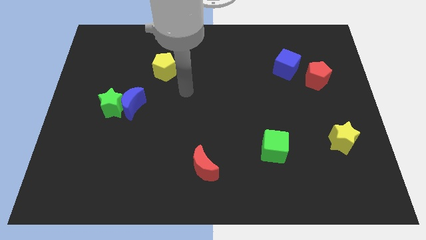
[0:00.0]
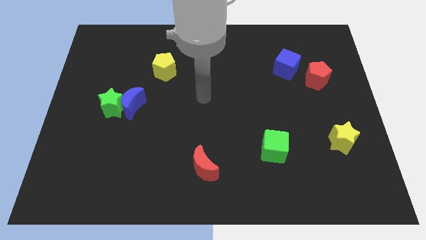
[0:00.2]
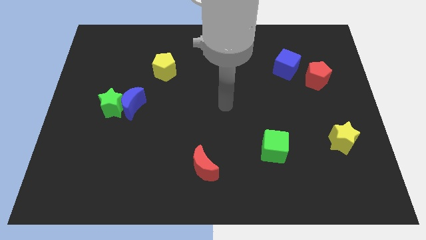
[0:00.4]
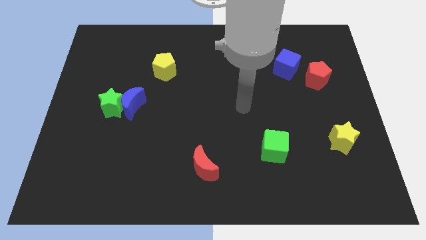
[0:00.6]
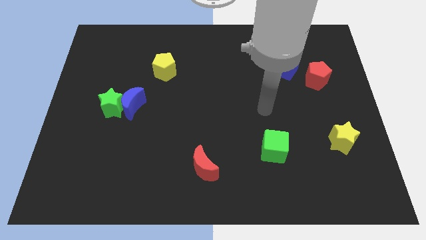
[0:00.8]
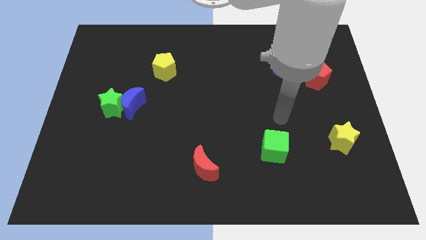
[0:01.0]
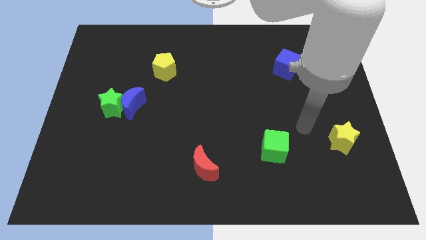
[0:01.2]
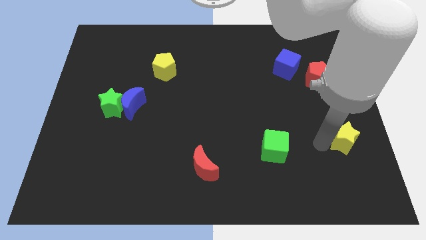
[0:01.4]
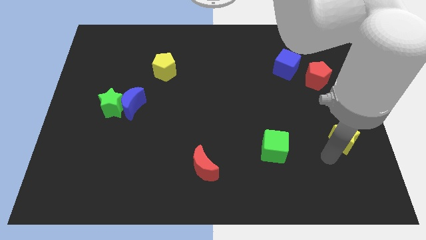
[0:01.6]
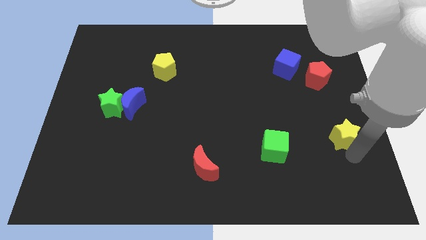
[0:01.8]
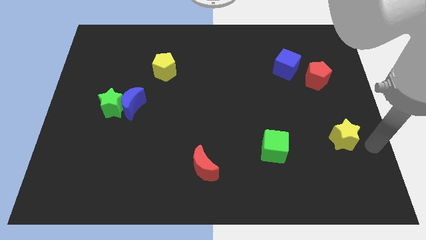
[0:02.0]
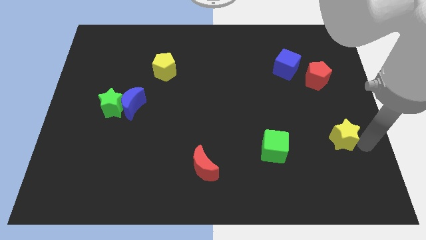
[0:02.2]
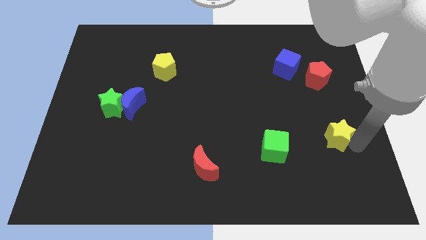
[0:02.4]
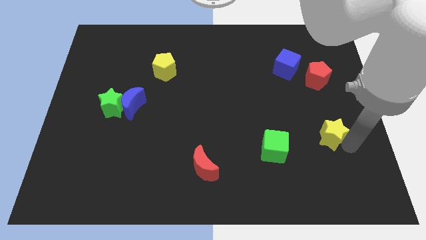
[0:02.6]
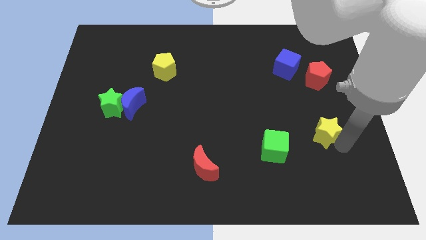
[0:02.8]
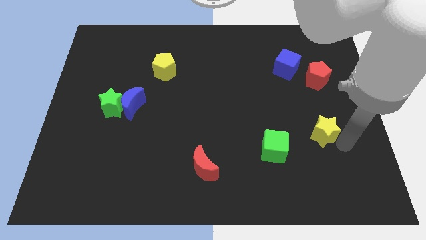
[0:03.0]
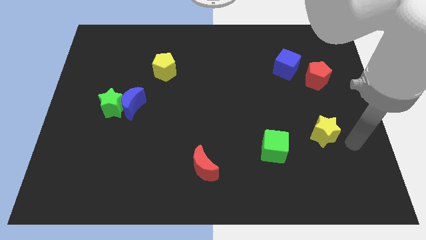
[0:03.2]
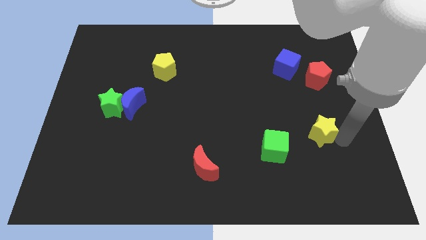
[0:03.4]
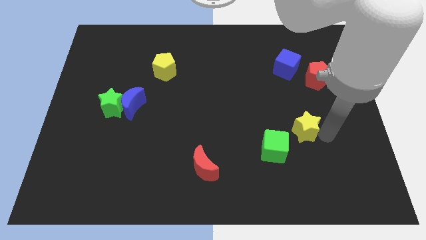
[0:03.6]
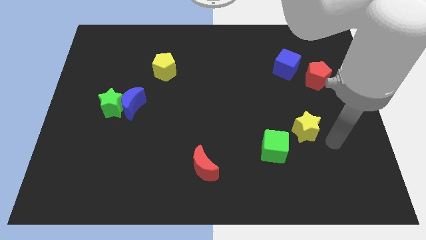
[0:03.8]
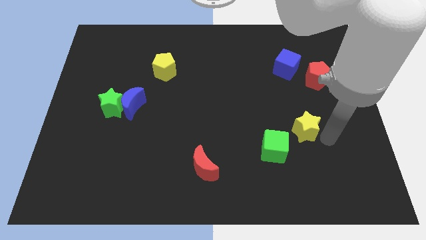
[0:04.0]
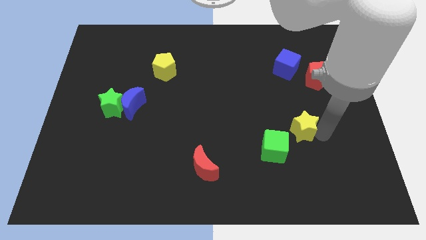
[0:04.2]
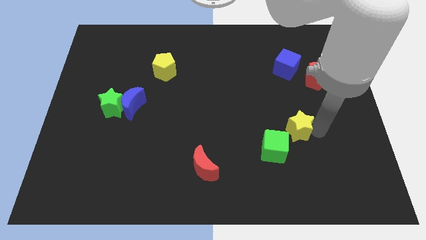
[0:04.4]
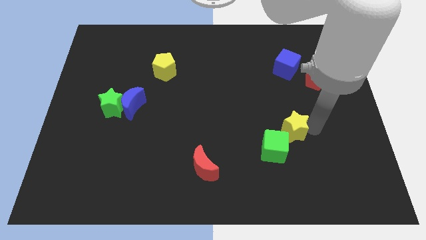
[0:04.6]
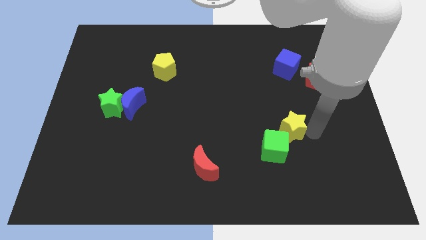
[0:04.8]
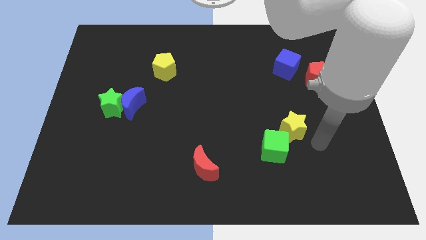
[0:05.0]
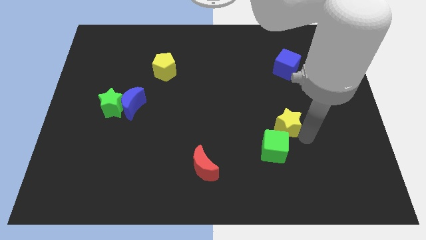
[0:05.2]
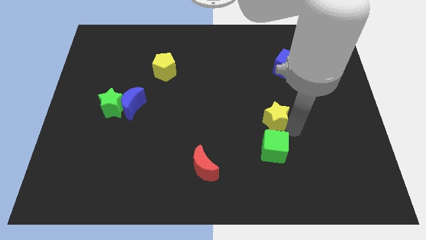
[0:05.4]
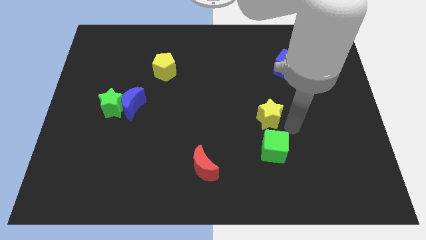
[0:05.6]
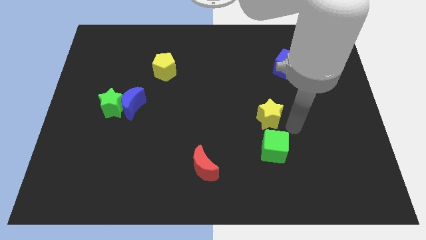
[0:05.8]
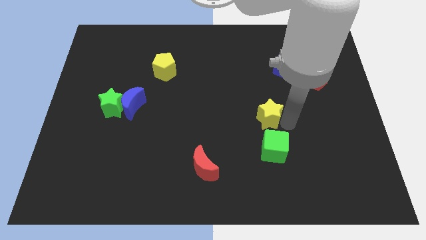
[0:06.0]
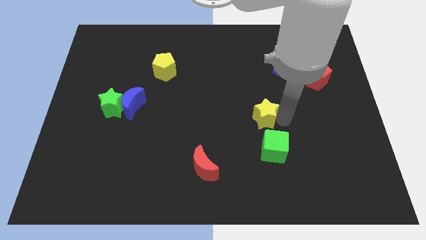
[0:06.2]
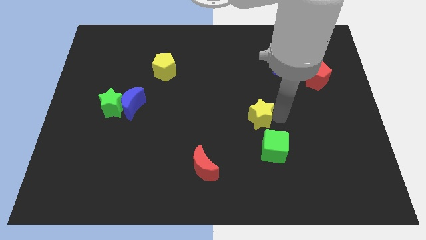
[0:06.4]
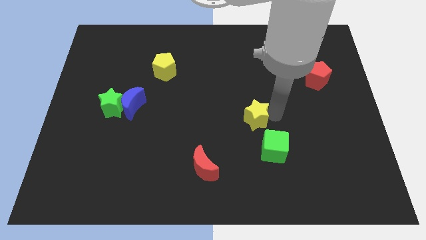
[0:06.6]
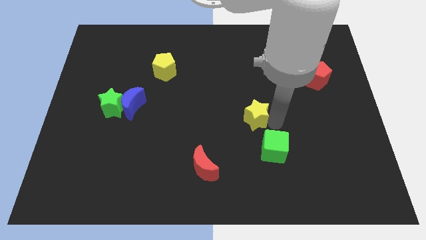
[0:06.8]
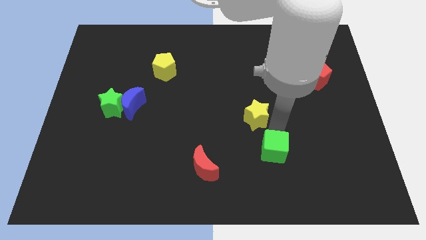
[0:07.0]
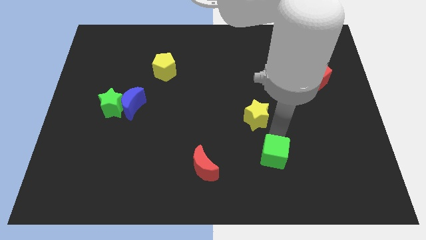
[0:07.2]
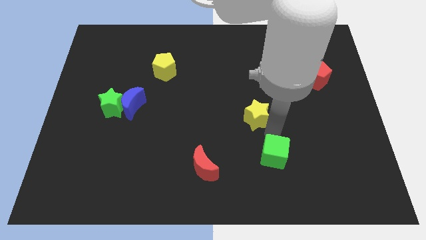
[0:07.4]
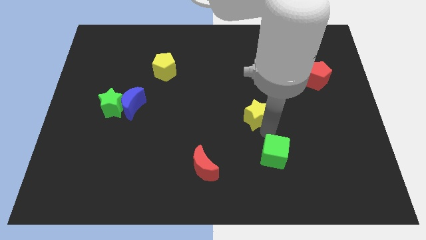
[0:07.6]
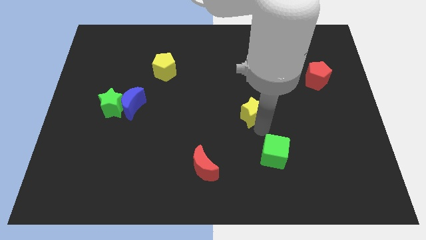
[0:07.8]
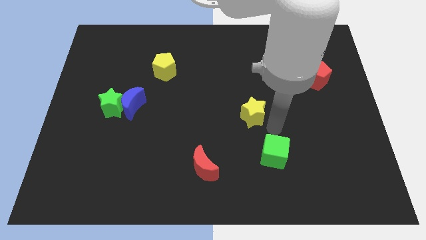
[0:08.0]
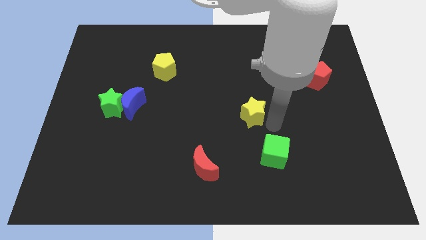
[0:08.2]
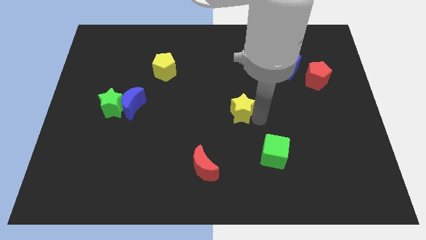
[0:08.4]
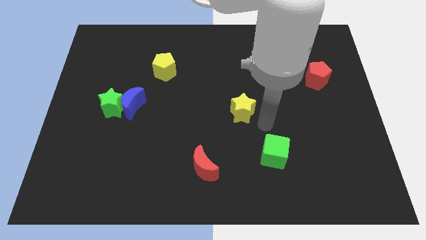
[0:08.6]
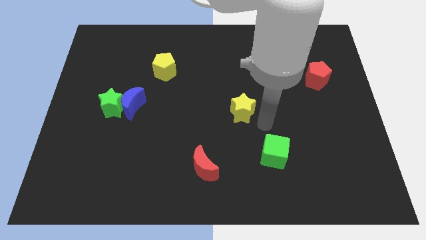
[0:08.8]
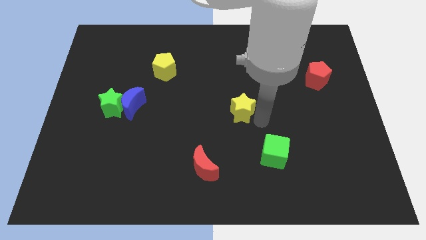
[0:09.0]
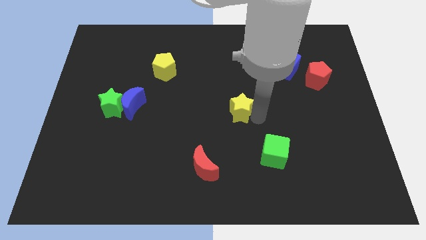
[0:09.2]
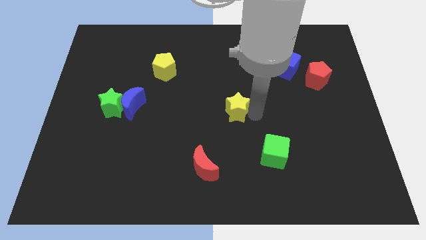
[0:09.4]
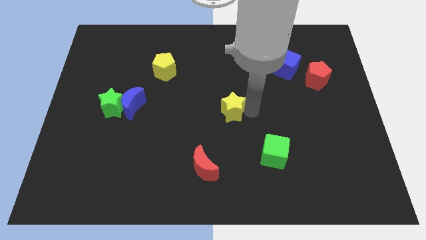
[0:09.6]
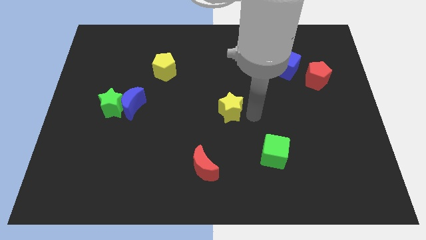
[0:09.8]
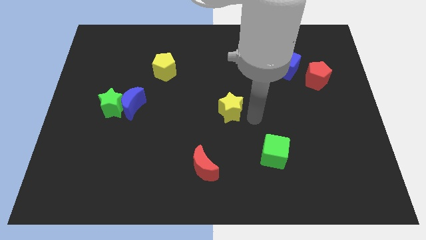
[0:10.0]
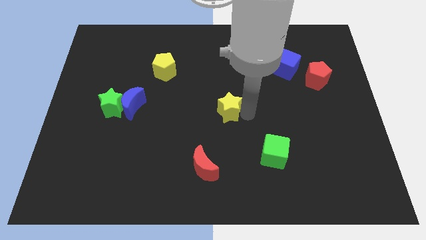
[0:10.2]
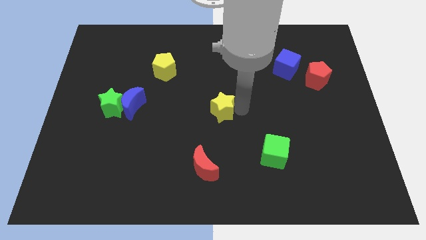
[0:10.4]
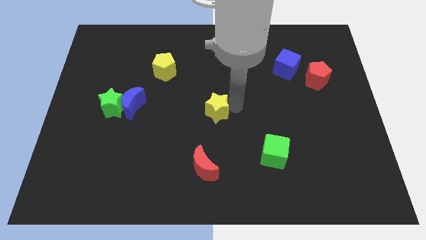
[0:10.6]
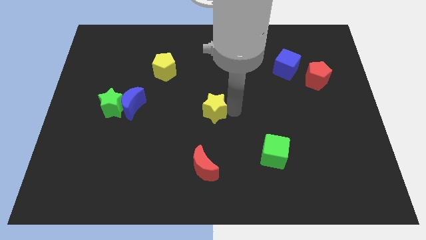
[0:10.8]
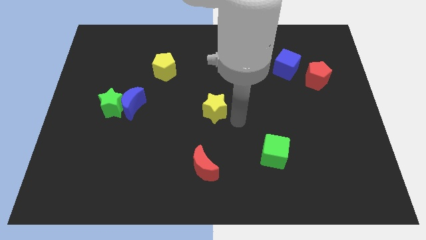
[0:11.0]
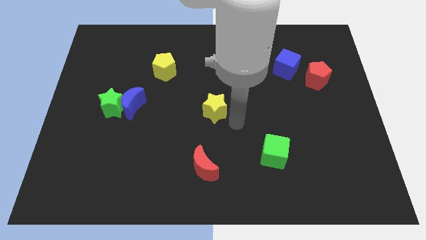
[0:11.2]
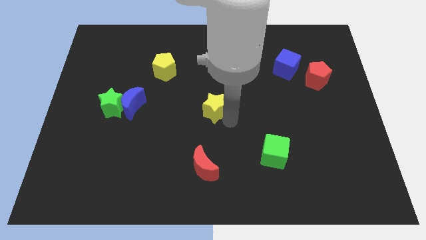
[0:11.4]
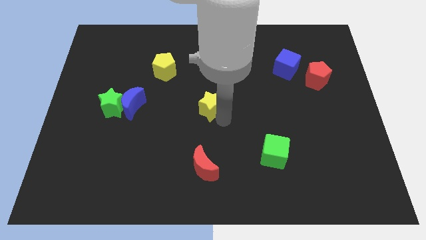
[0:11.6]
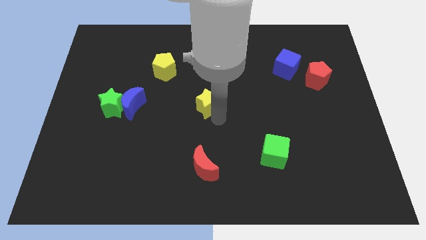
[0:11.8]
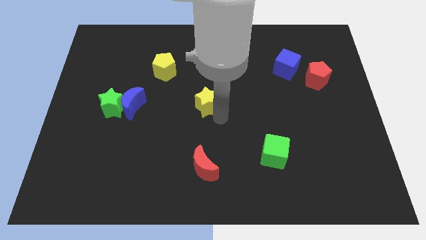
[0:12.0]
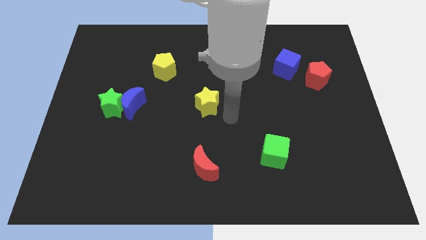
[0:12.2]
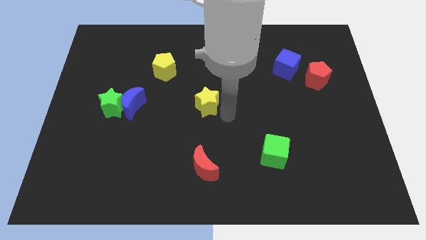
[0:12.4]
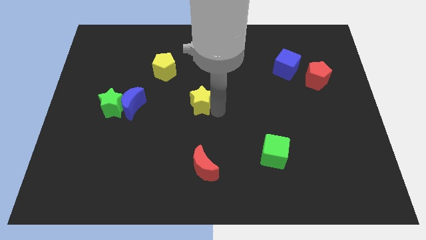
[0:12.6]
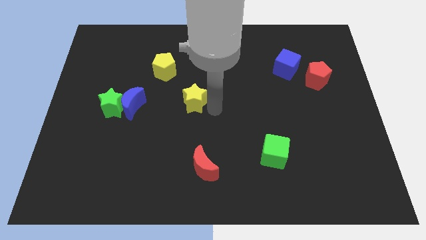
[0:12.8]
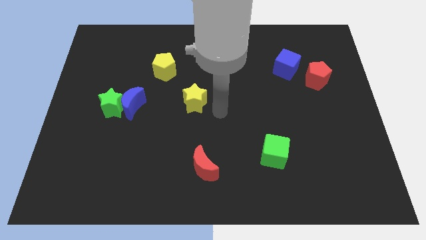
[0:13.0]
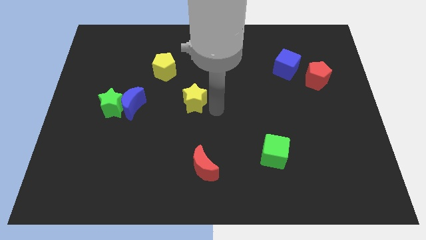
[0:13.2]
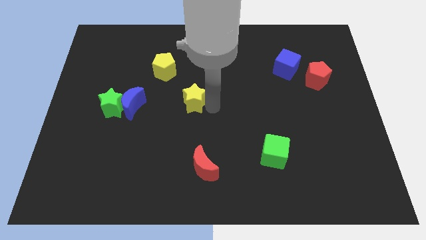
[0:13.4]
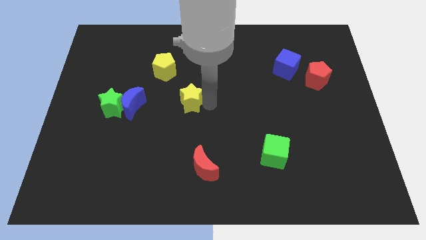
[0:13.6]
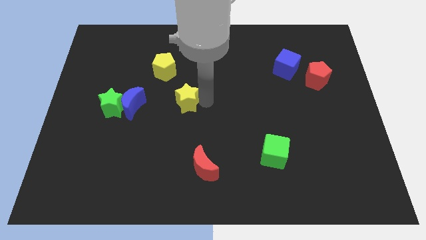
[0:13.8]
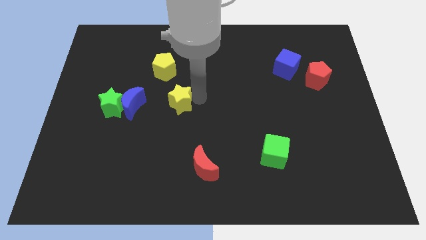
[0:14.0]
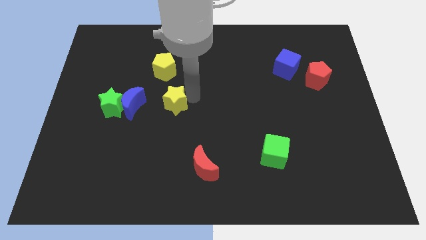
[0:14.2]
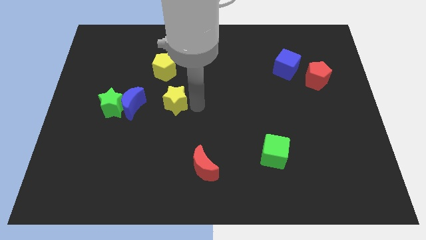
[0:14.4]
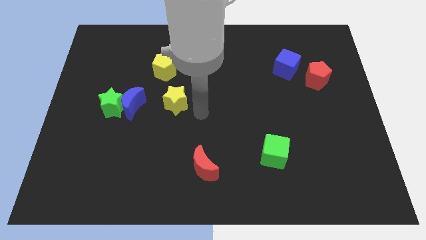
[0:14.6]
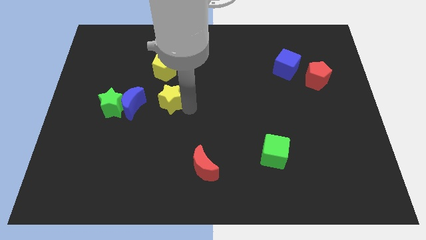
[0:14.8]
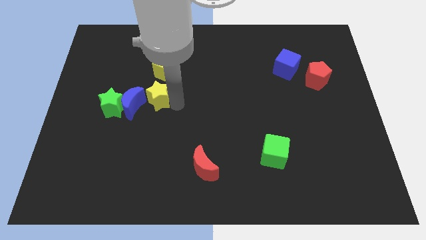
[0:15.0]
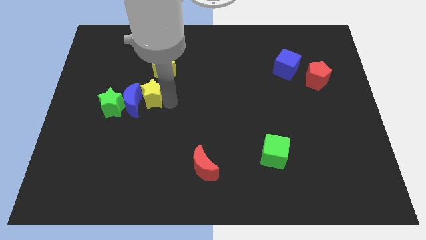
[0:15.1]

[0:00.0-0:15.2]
slide the yellow star to the top right side of the green star
